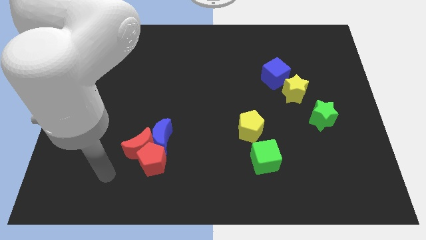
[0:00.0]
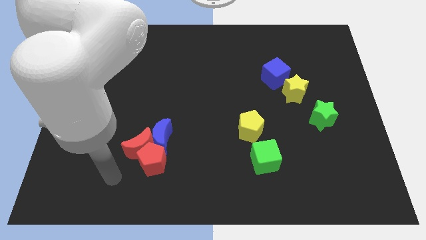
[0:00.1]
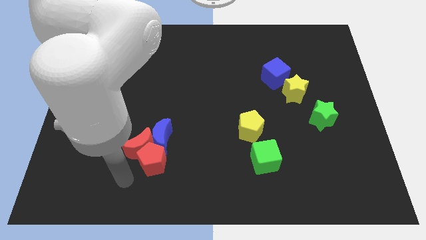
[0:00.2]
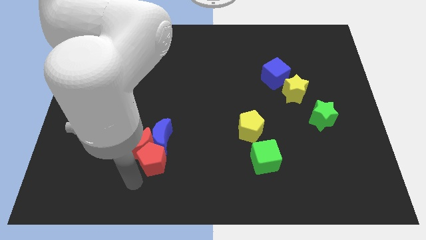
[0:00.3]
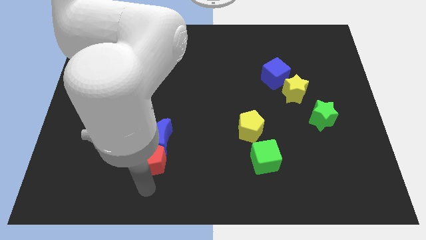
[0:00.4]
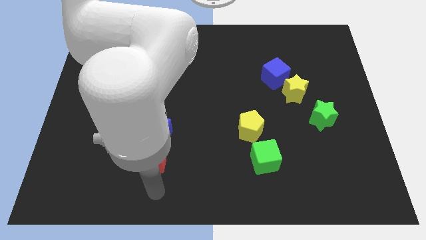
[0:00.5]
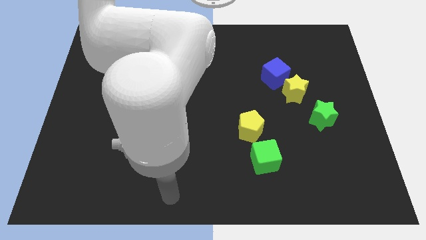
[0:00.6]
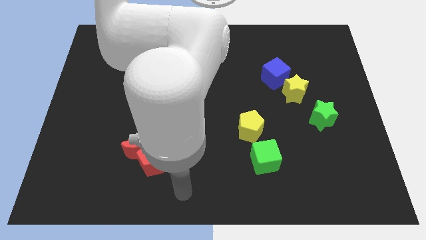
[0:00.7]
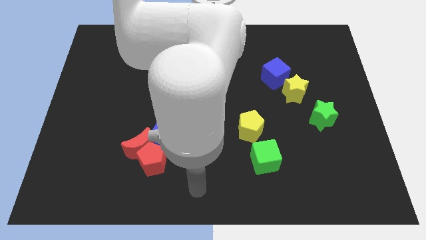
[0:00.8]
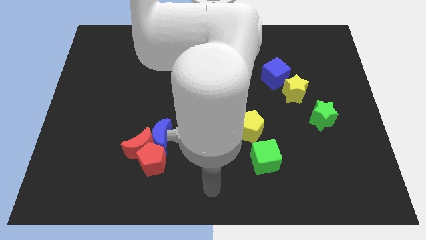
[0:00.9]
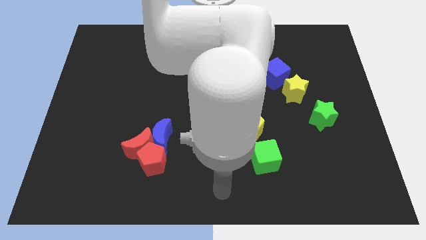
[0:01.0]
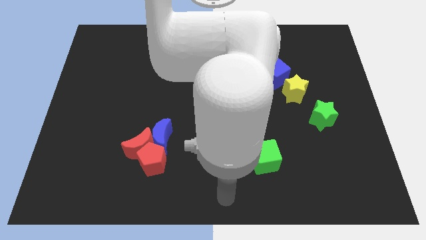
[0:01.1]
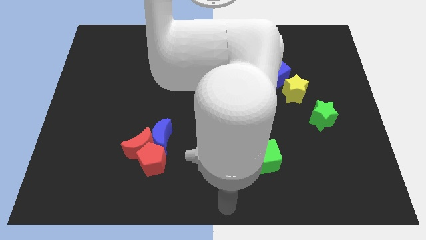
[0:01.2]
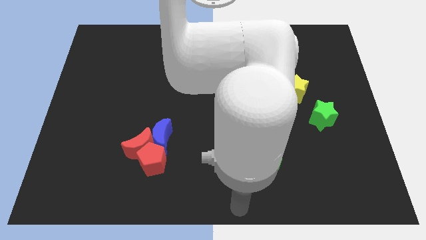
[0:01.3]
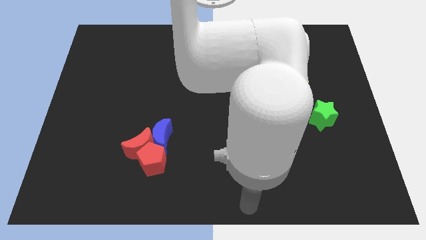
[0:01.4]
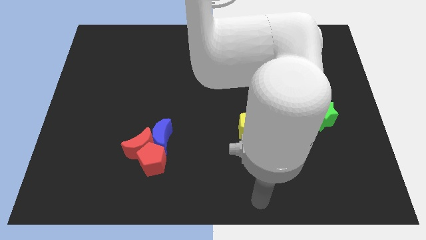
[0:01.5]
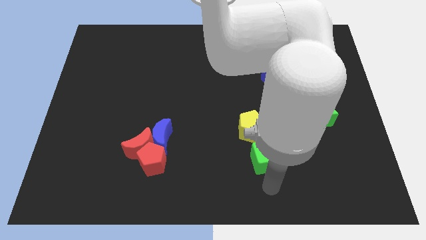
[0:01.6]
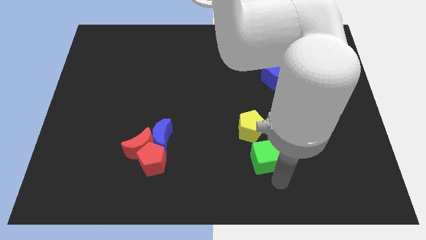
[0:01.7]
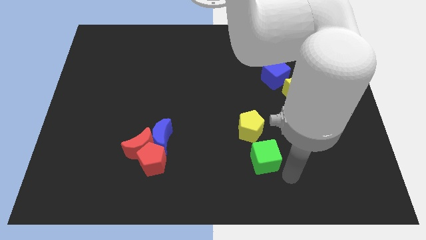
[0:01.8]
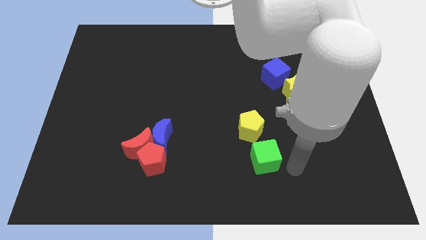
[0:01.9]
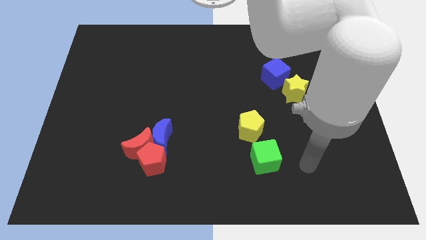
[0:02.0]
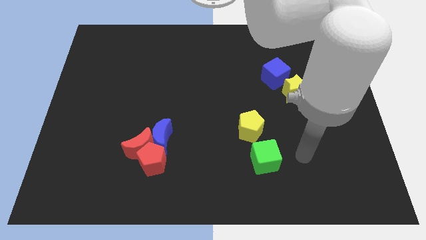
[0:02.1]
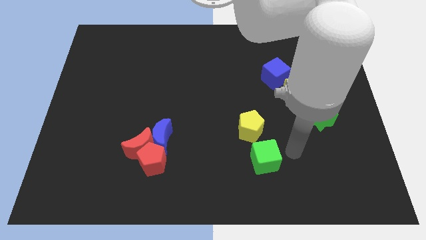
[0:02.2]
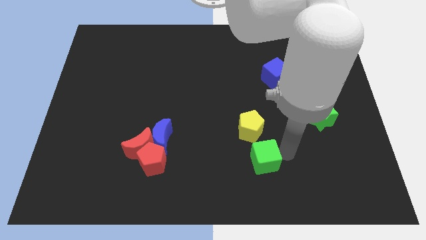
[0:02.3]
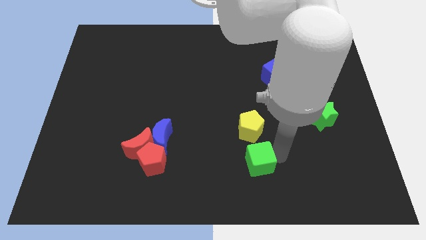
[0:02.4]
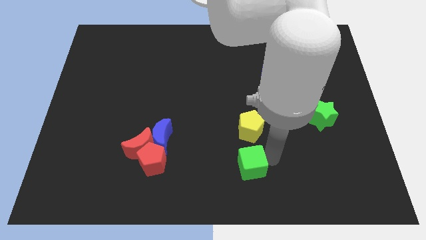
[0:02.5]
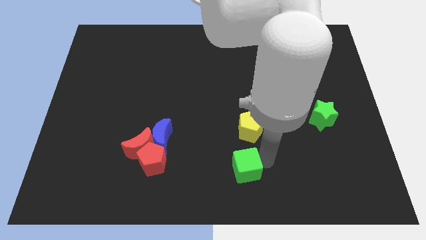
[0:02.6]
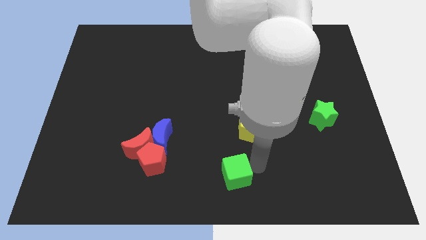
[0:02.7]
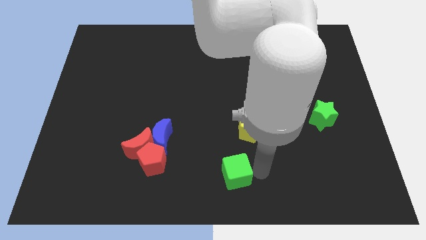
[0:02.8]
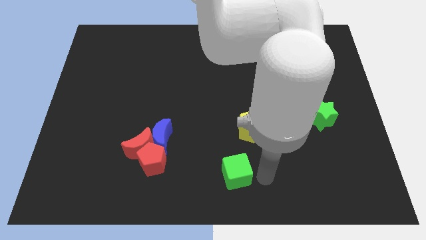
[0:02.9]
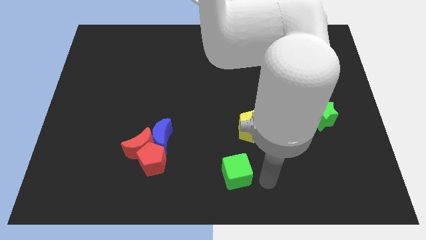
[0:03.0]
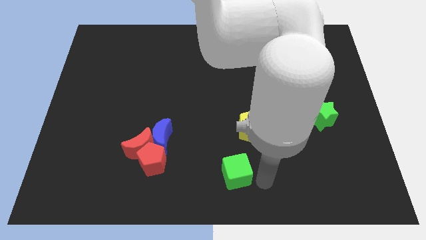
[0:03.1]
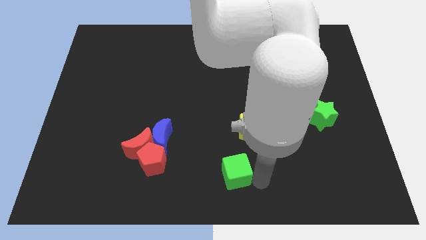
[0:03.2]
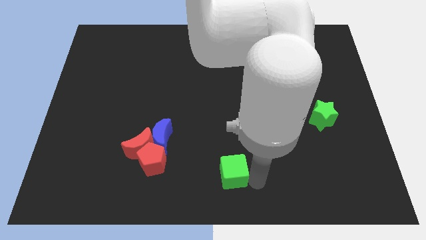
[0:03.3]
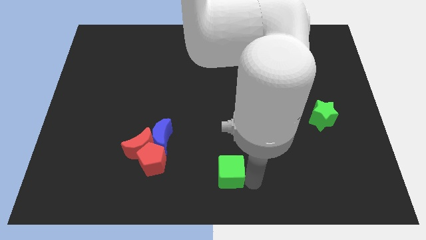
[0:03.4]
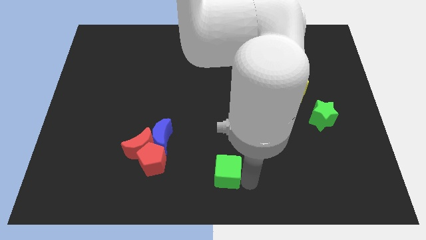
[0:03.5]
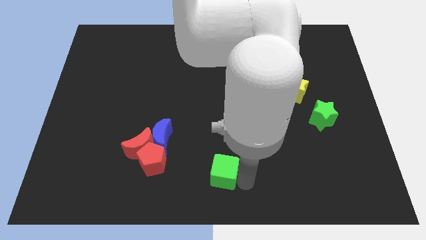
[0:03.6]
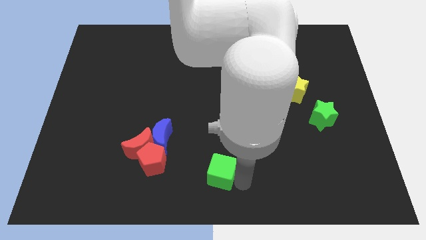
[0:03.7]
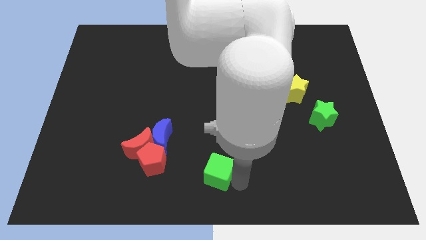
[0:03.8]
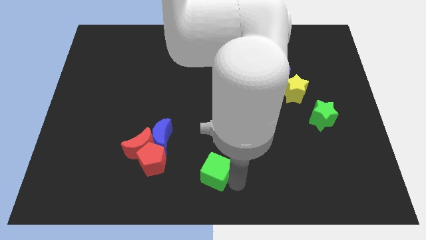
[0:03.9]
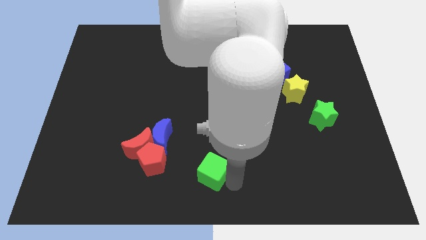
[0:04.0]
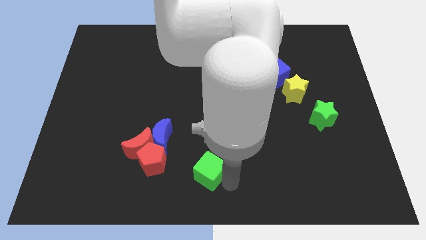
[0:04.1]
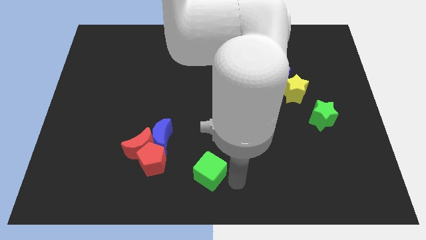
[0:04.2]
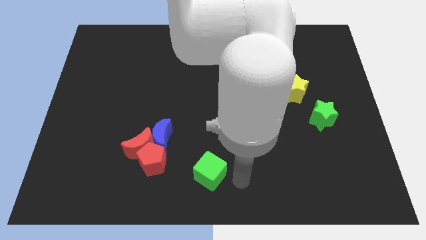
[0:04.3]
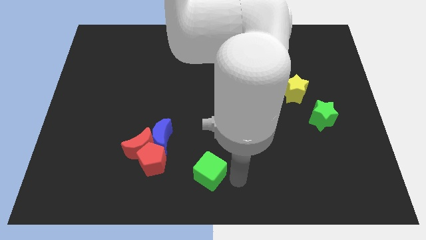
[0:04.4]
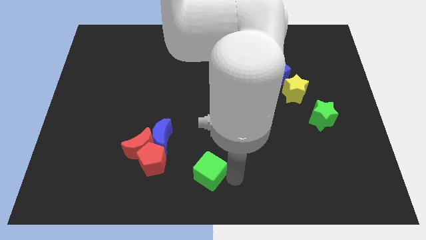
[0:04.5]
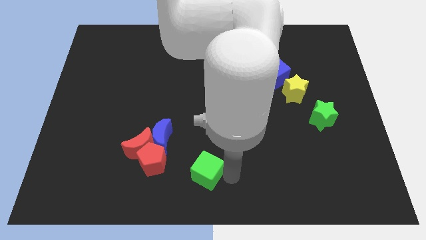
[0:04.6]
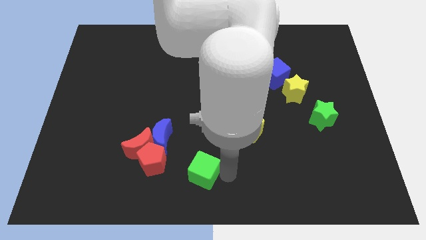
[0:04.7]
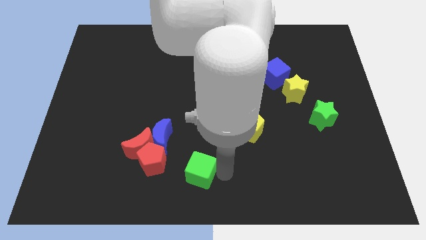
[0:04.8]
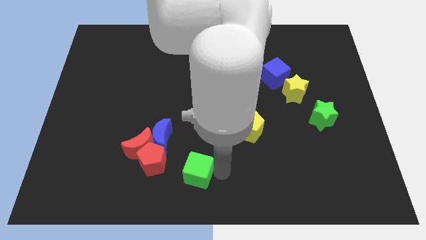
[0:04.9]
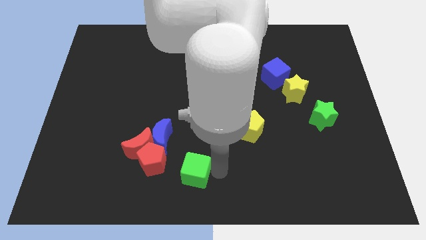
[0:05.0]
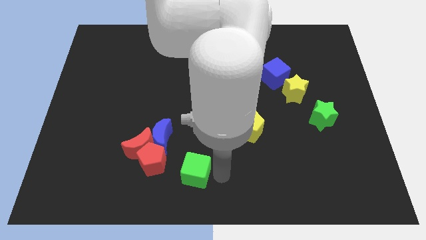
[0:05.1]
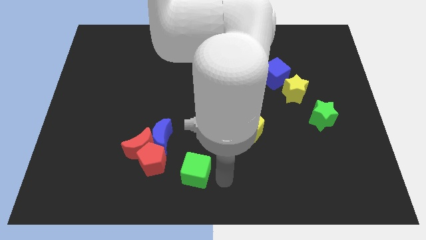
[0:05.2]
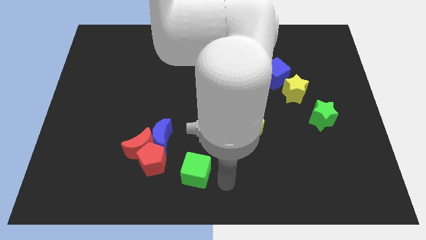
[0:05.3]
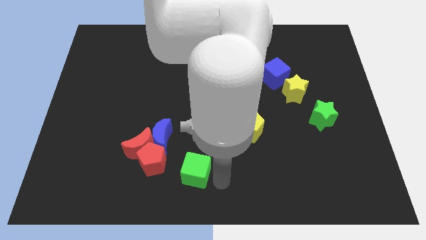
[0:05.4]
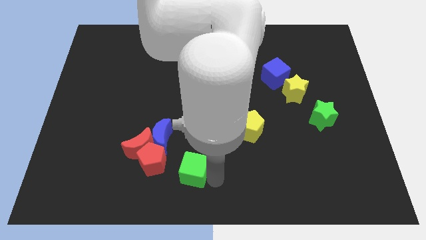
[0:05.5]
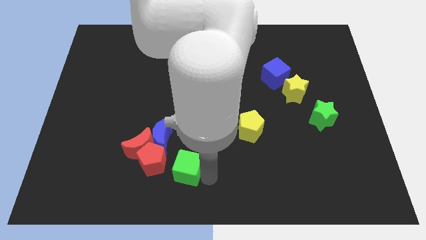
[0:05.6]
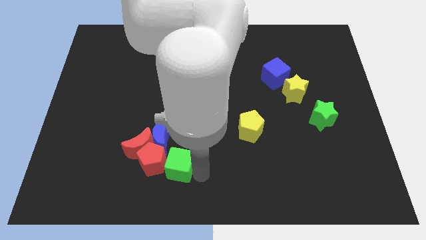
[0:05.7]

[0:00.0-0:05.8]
slide the green cube to the red pentagon

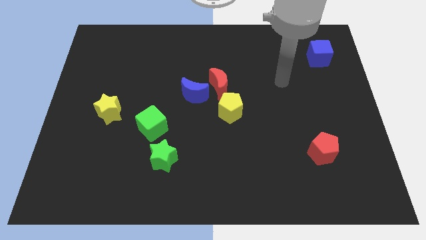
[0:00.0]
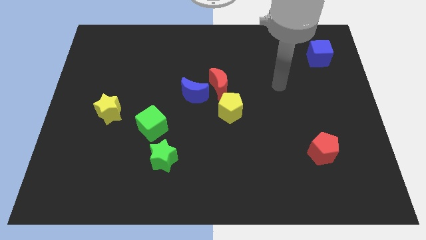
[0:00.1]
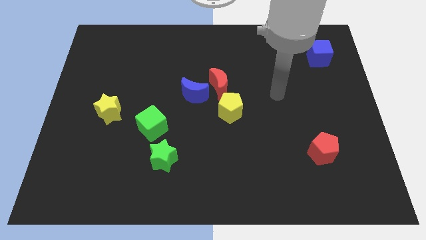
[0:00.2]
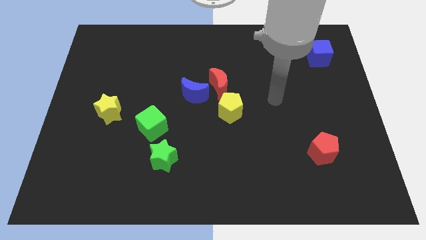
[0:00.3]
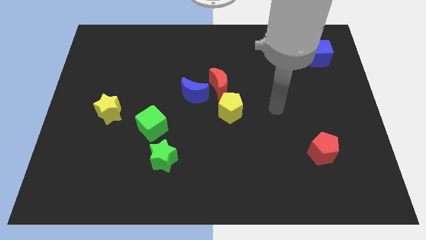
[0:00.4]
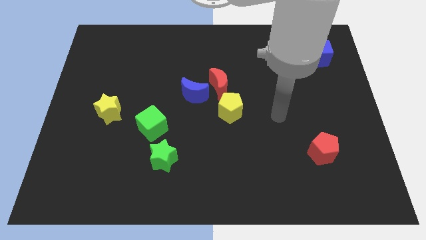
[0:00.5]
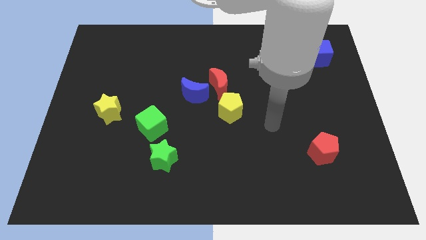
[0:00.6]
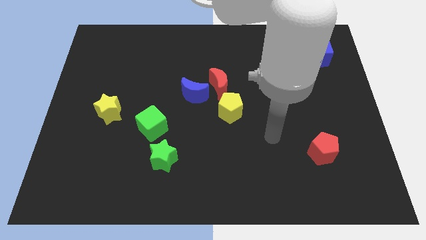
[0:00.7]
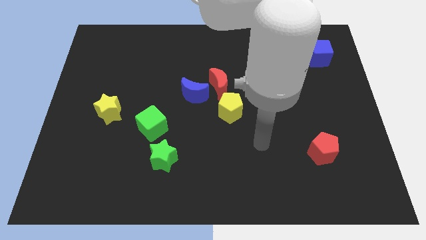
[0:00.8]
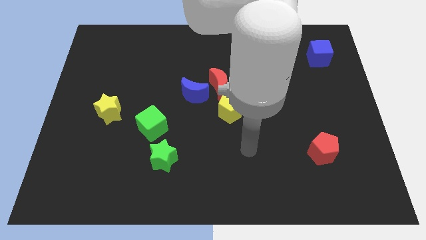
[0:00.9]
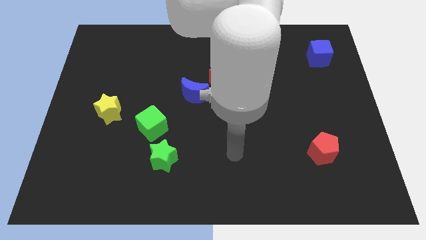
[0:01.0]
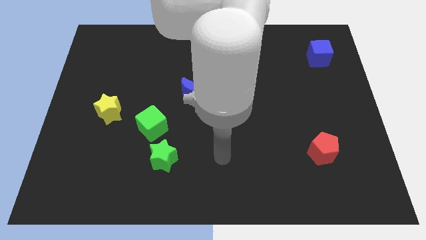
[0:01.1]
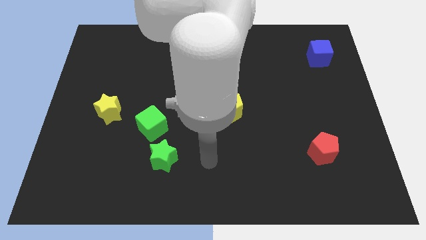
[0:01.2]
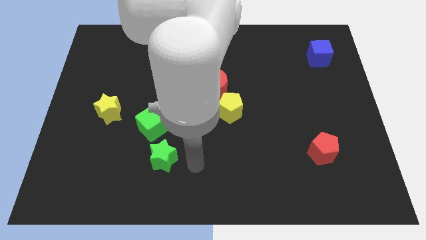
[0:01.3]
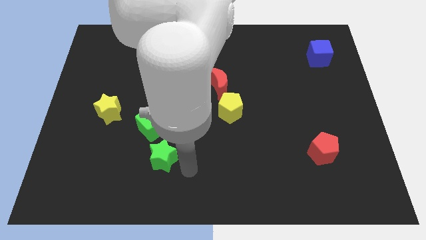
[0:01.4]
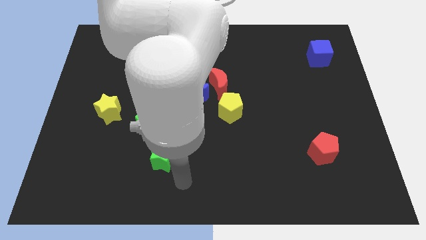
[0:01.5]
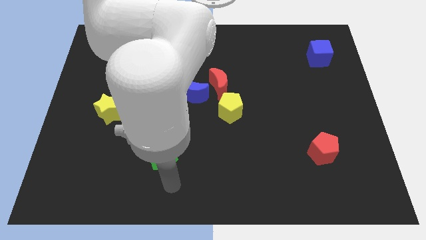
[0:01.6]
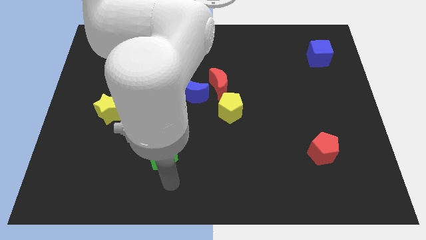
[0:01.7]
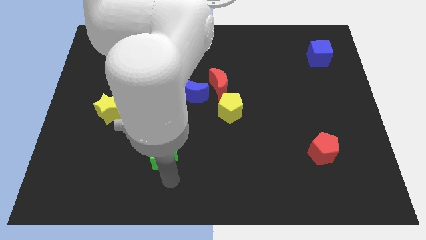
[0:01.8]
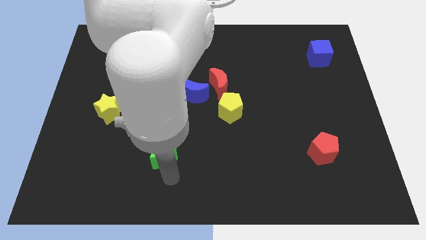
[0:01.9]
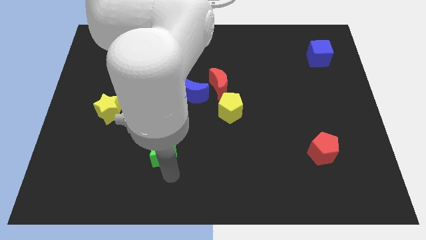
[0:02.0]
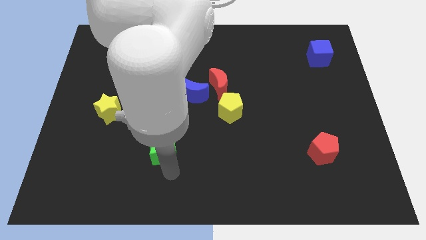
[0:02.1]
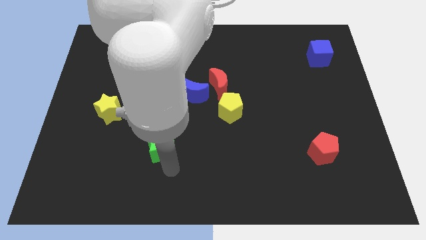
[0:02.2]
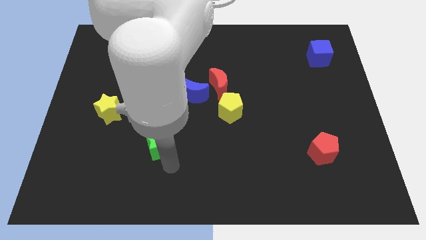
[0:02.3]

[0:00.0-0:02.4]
push the green star to the green cube
